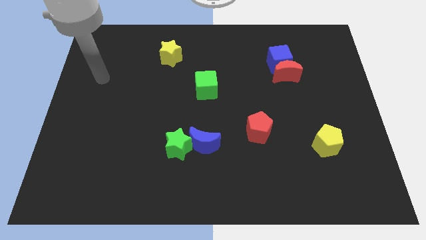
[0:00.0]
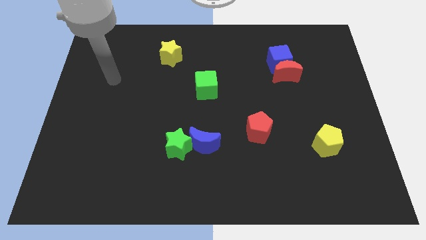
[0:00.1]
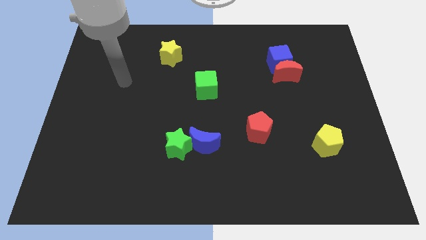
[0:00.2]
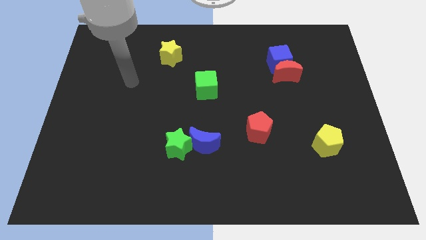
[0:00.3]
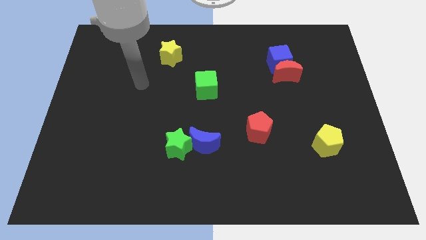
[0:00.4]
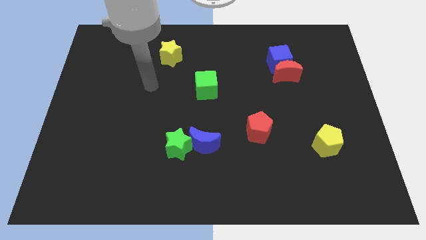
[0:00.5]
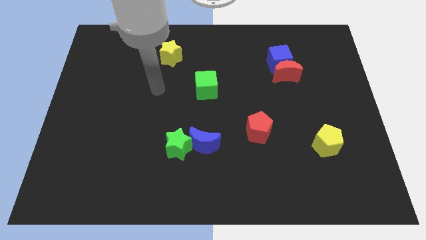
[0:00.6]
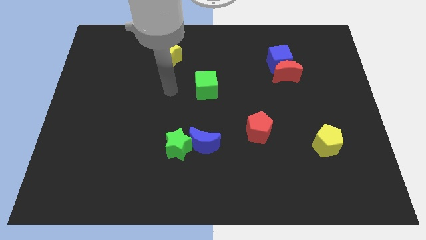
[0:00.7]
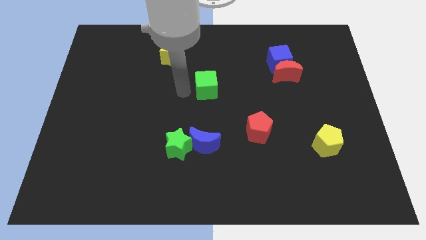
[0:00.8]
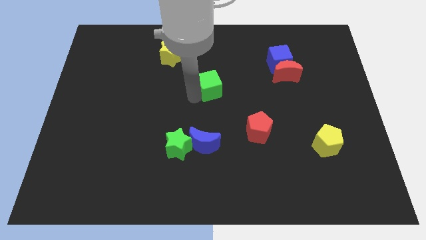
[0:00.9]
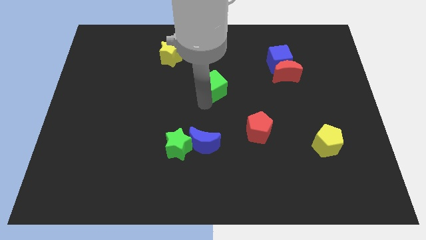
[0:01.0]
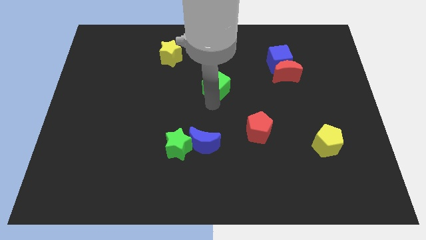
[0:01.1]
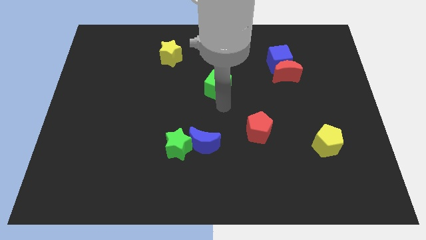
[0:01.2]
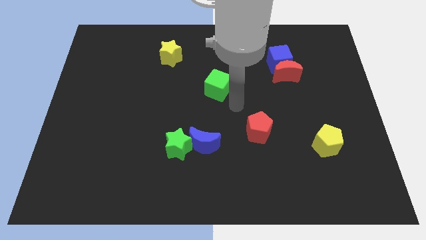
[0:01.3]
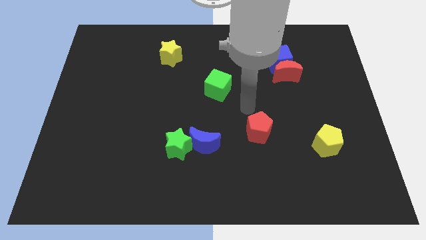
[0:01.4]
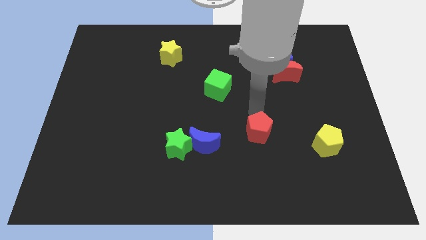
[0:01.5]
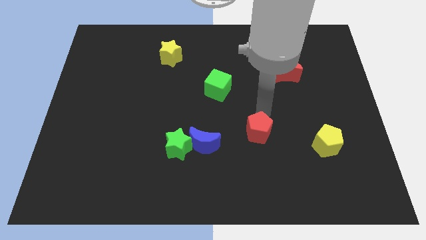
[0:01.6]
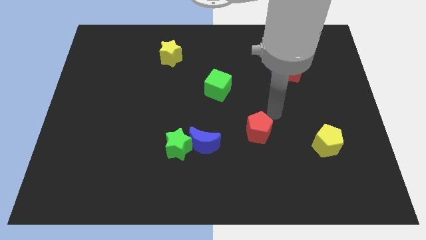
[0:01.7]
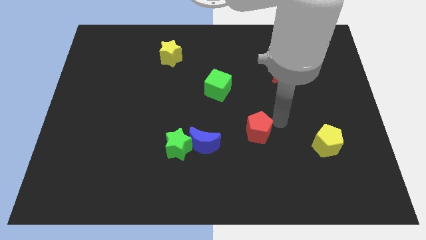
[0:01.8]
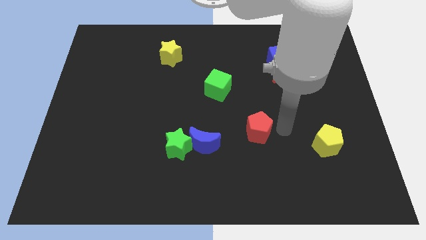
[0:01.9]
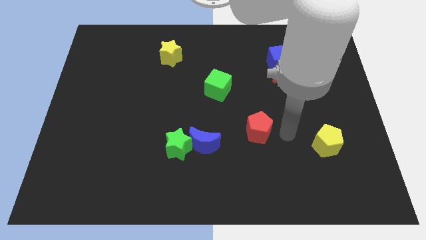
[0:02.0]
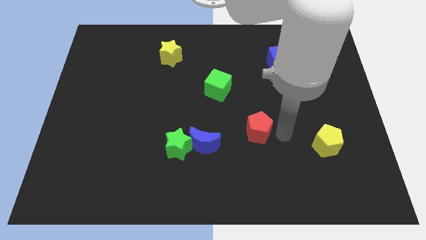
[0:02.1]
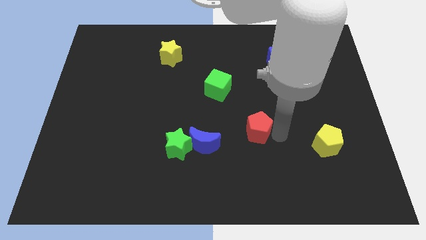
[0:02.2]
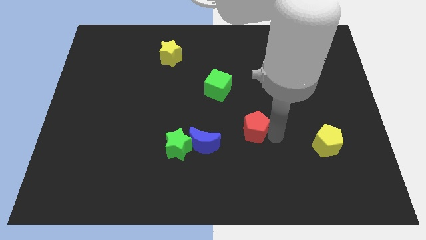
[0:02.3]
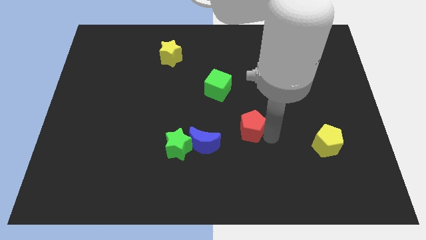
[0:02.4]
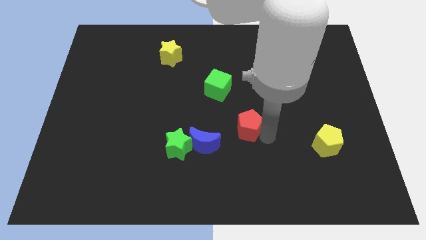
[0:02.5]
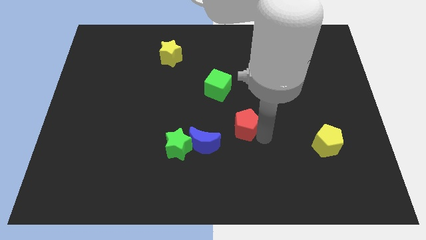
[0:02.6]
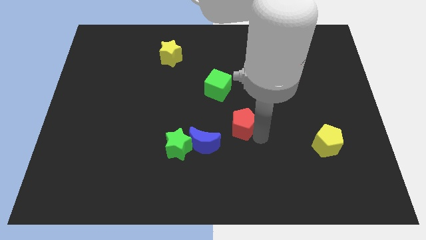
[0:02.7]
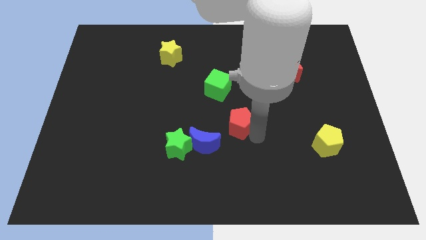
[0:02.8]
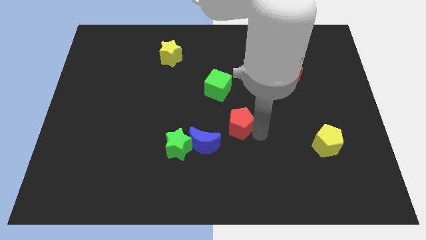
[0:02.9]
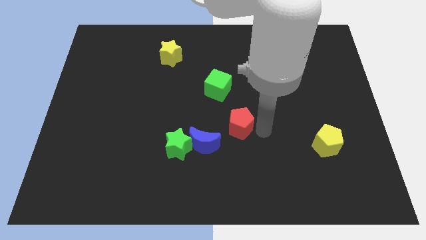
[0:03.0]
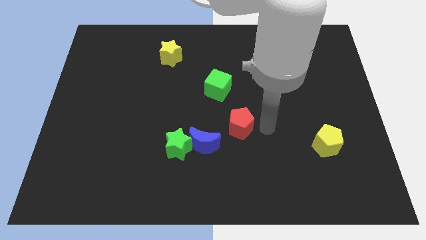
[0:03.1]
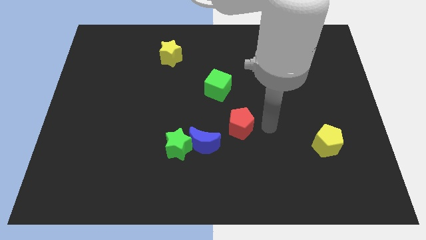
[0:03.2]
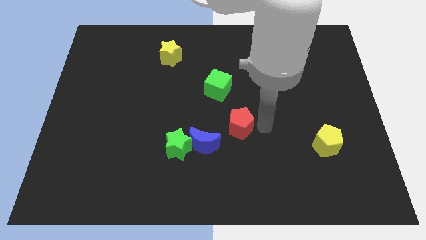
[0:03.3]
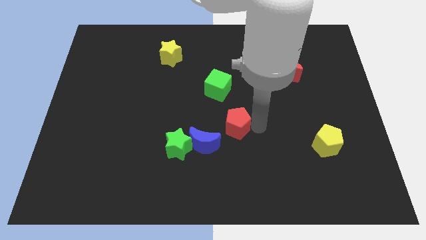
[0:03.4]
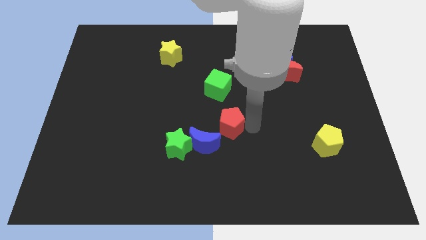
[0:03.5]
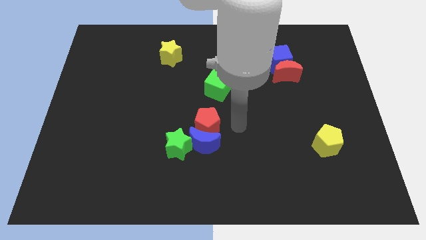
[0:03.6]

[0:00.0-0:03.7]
push the red pentagon somewhat left

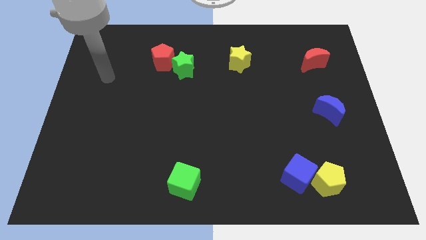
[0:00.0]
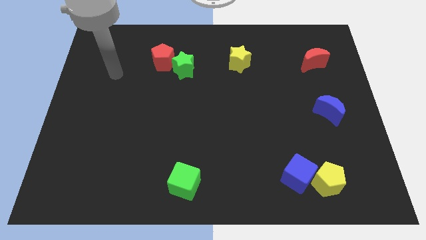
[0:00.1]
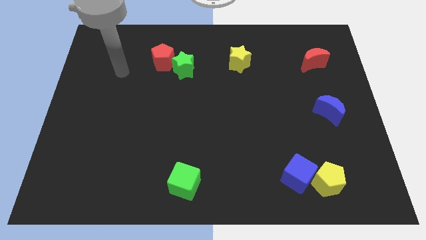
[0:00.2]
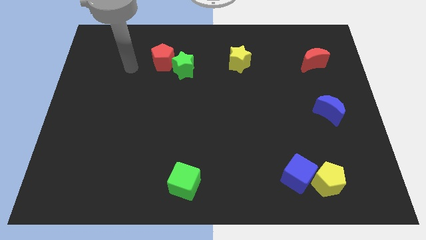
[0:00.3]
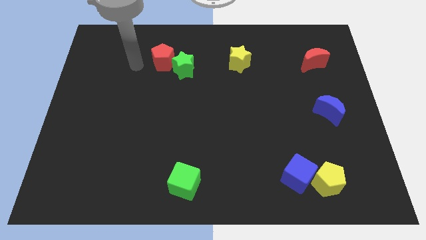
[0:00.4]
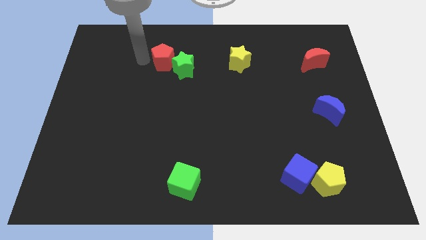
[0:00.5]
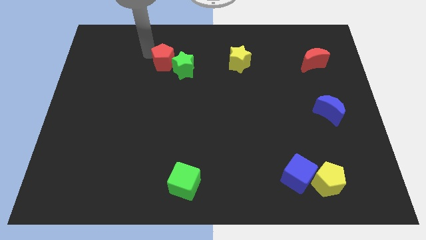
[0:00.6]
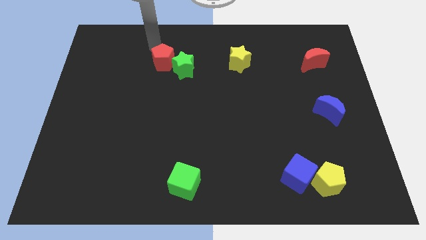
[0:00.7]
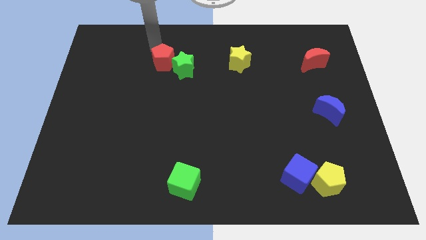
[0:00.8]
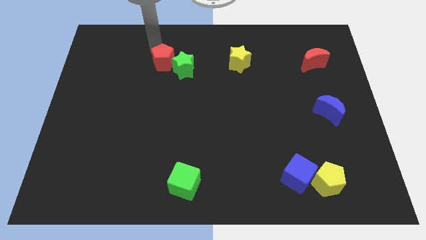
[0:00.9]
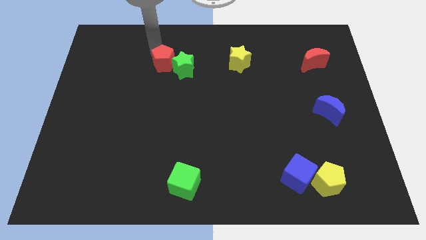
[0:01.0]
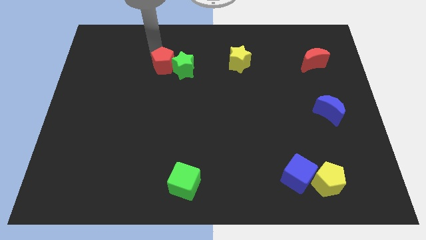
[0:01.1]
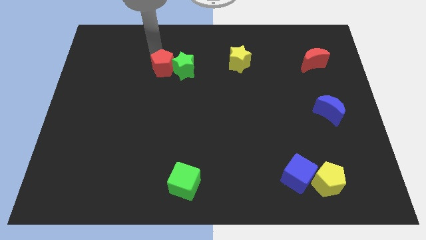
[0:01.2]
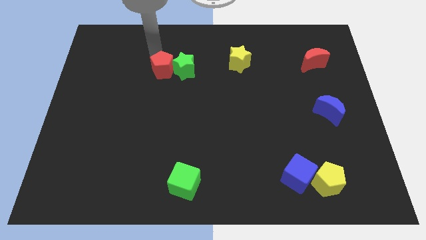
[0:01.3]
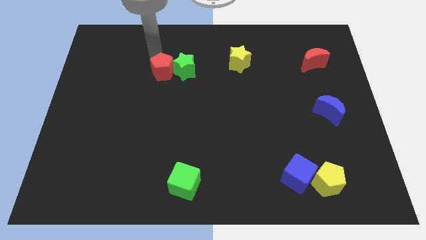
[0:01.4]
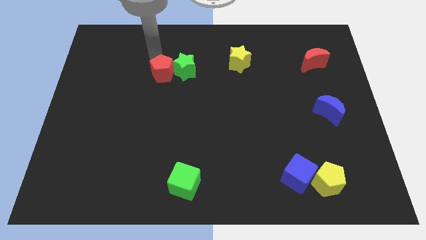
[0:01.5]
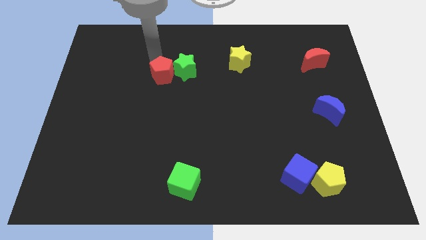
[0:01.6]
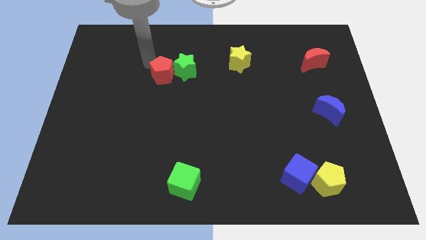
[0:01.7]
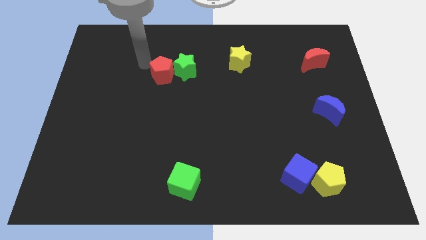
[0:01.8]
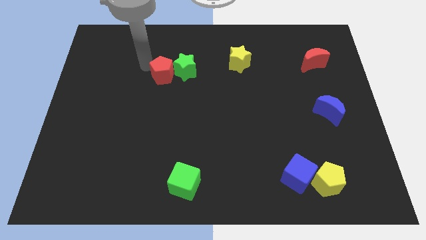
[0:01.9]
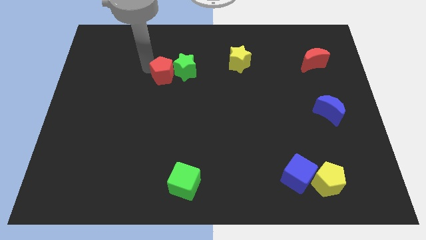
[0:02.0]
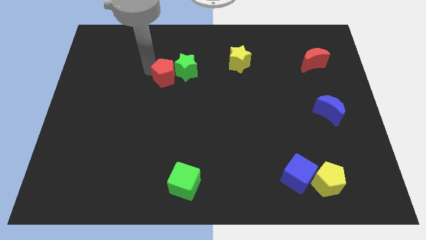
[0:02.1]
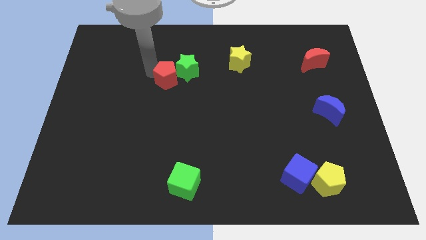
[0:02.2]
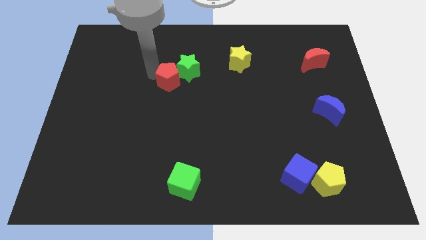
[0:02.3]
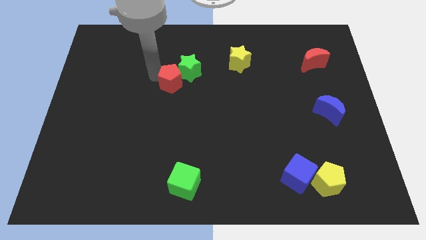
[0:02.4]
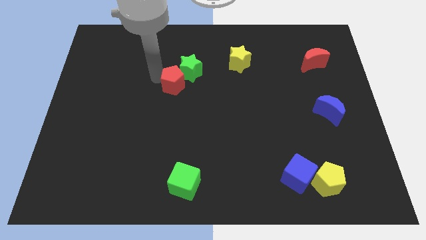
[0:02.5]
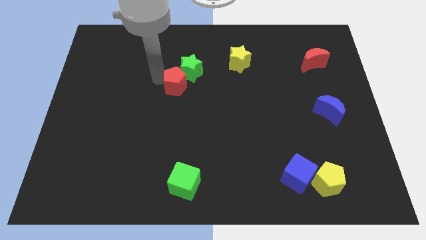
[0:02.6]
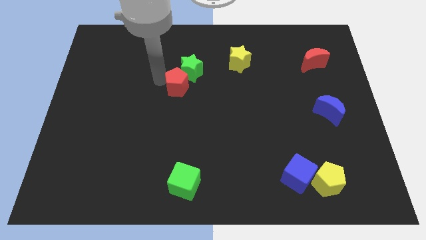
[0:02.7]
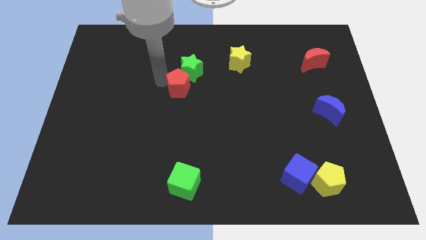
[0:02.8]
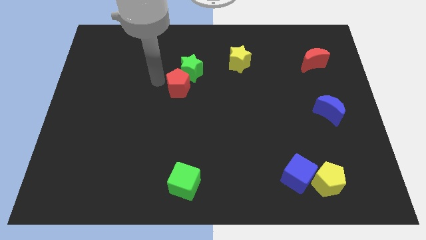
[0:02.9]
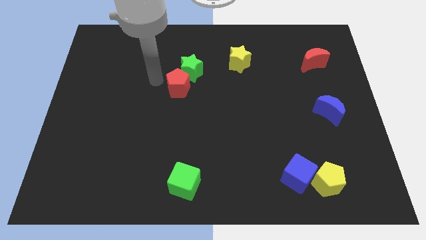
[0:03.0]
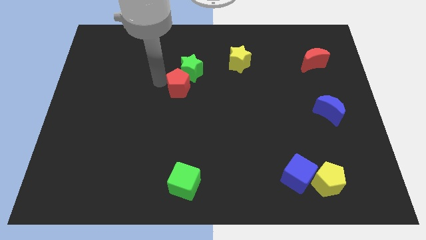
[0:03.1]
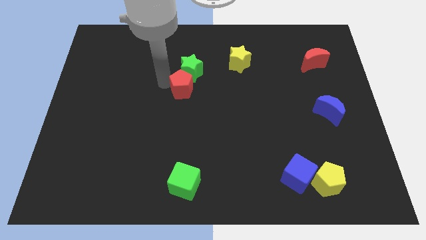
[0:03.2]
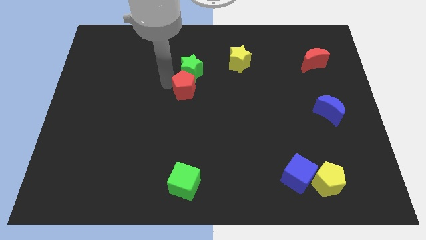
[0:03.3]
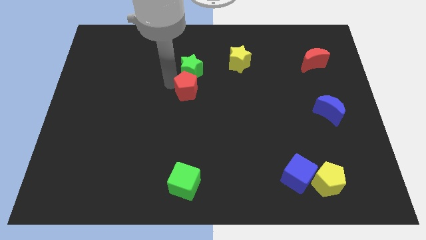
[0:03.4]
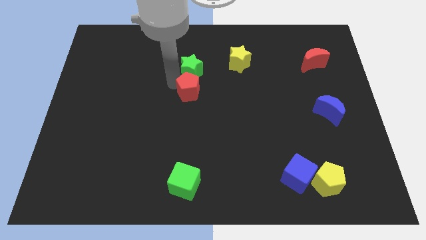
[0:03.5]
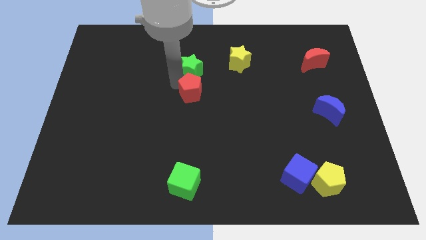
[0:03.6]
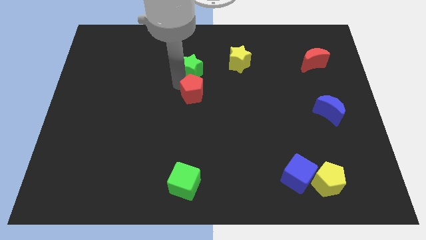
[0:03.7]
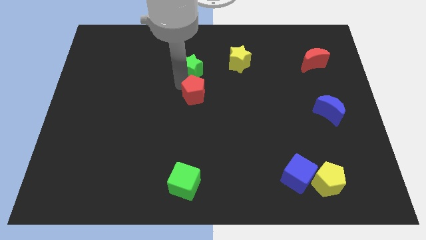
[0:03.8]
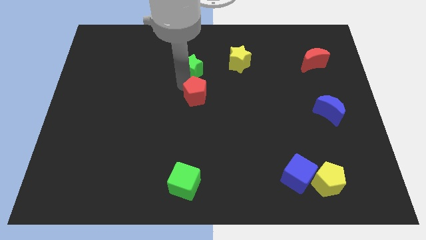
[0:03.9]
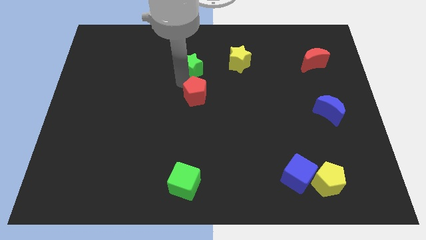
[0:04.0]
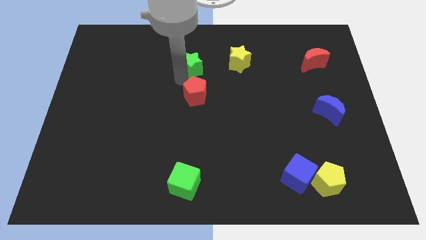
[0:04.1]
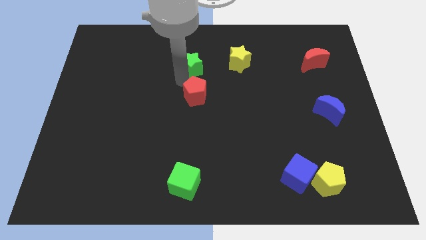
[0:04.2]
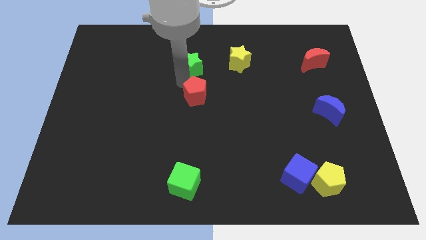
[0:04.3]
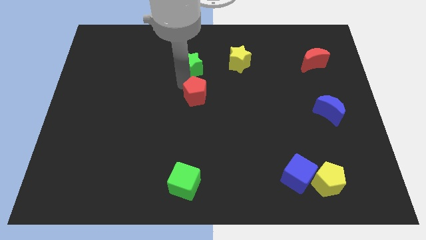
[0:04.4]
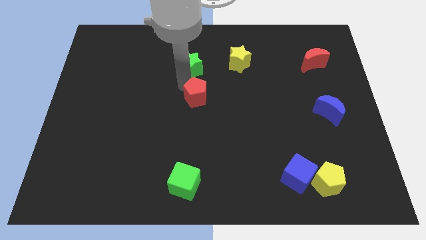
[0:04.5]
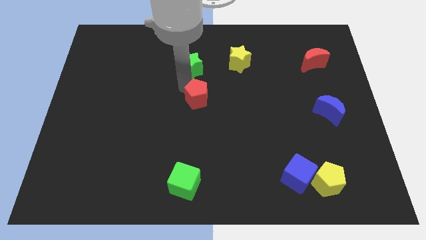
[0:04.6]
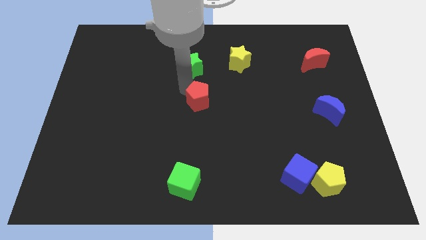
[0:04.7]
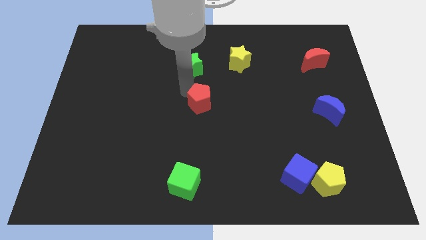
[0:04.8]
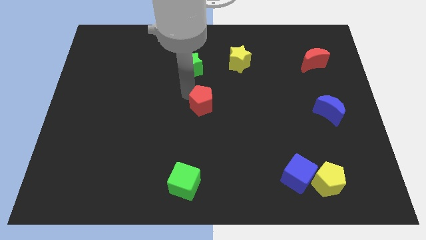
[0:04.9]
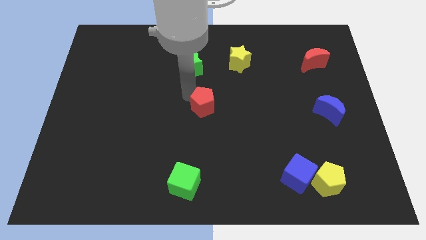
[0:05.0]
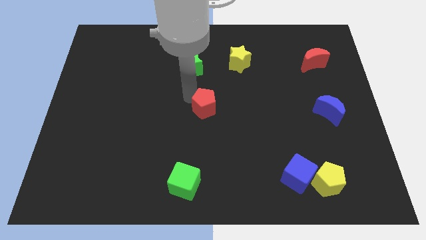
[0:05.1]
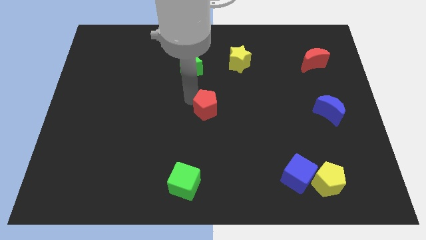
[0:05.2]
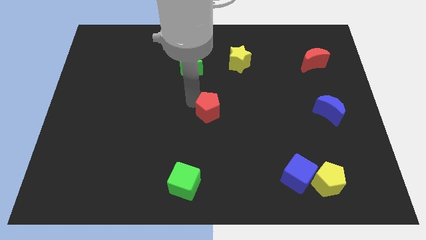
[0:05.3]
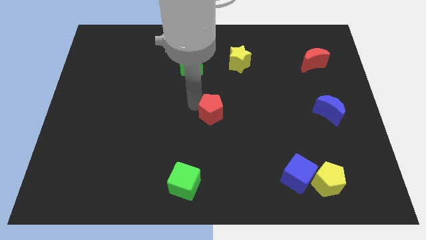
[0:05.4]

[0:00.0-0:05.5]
push the red pentagon down and then right
